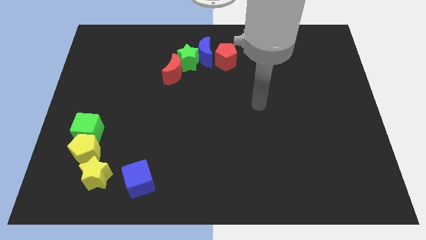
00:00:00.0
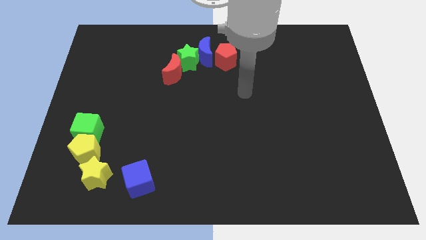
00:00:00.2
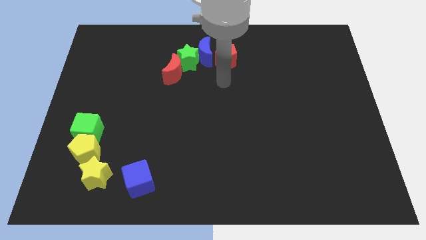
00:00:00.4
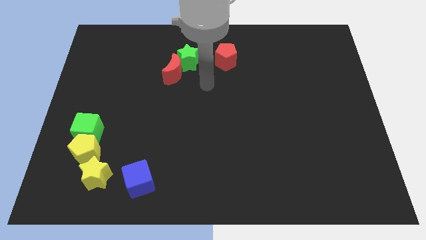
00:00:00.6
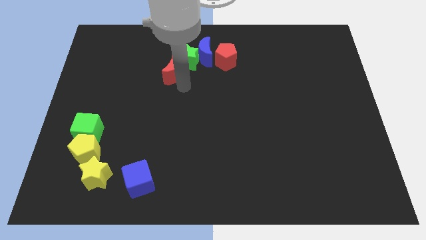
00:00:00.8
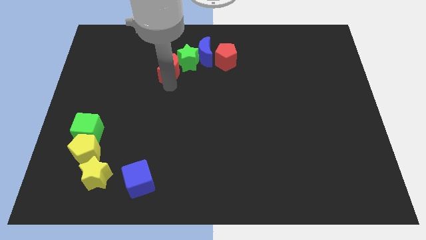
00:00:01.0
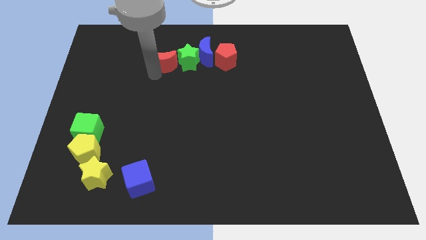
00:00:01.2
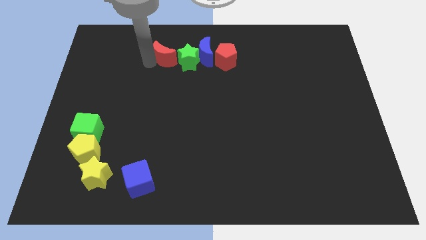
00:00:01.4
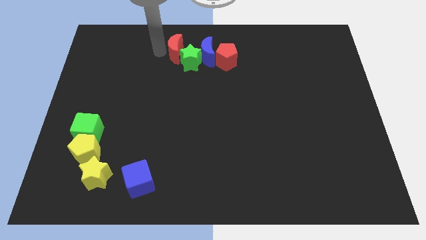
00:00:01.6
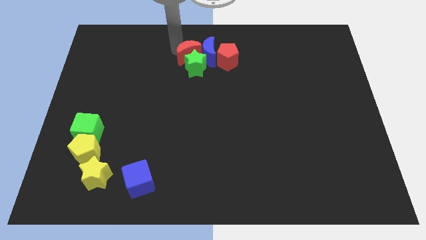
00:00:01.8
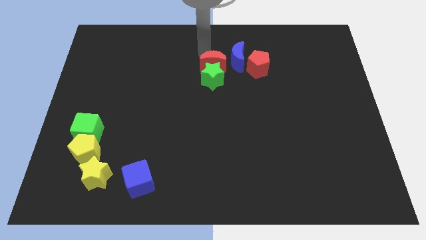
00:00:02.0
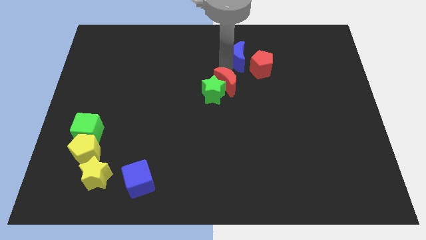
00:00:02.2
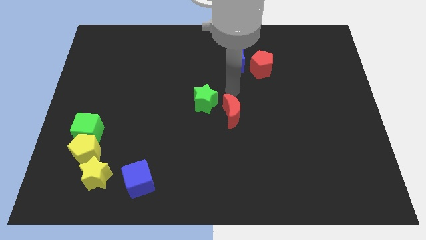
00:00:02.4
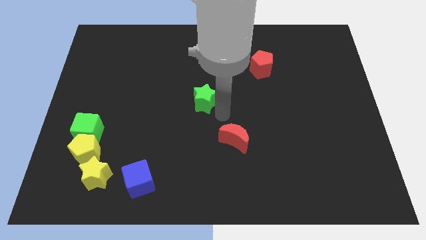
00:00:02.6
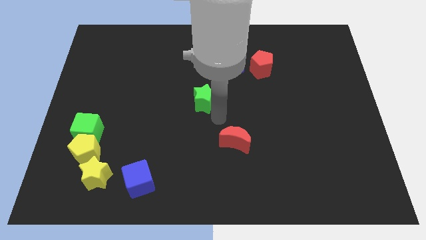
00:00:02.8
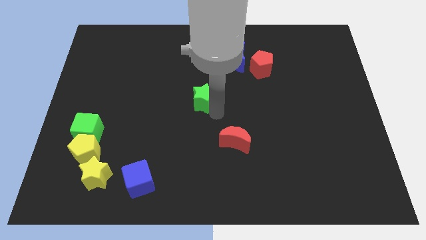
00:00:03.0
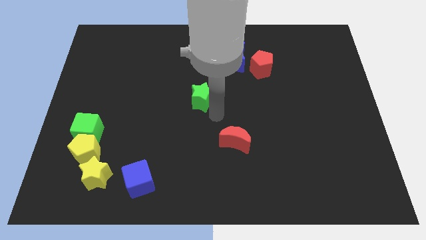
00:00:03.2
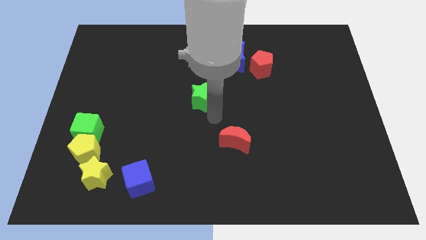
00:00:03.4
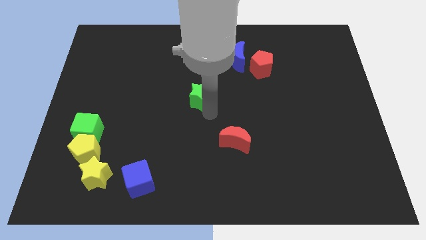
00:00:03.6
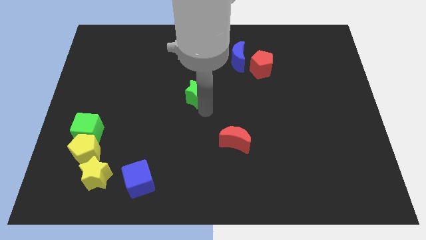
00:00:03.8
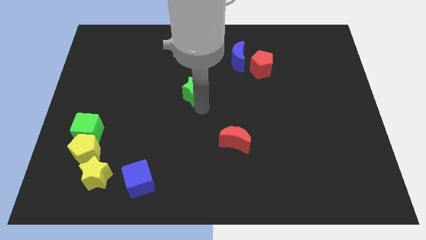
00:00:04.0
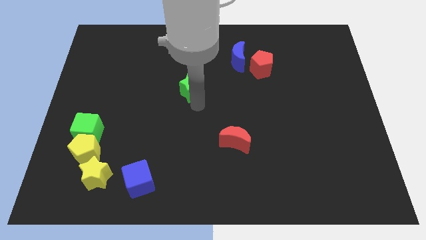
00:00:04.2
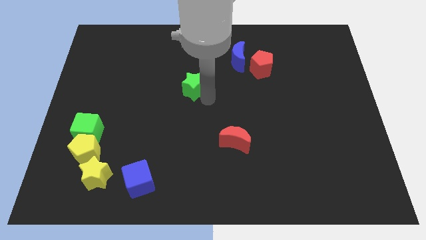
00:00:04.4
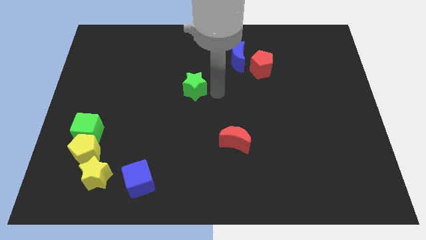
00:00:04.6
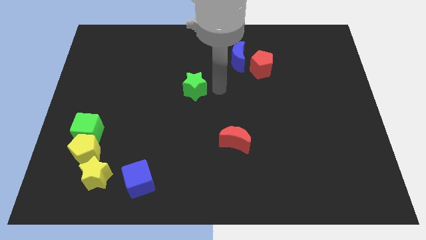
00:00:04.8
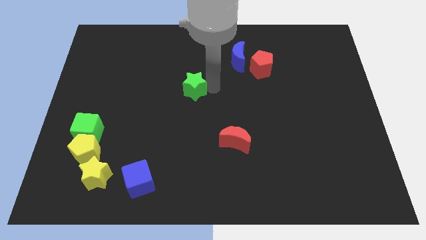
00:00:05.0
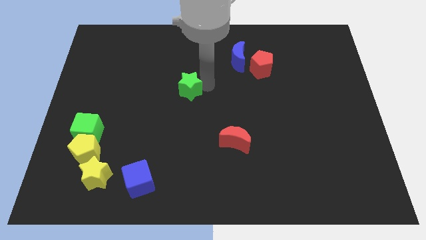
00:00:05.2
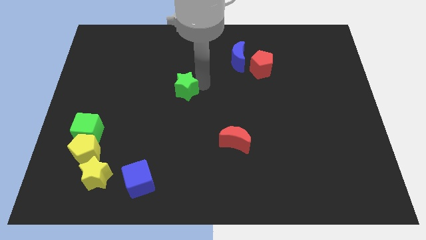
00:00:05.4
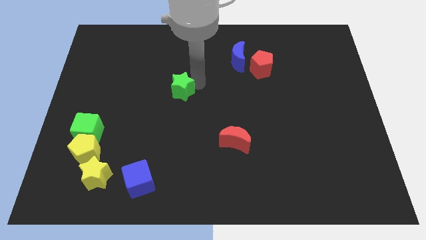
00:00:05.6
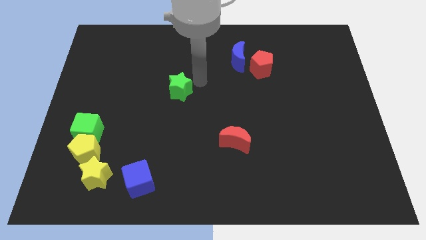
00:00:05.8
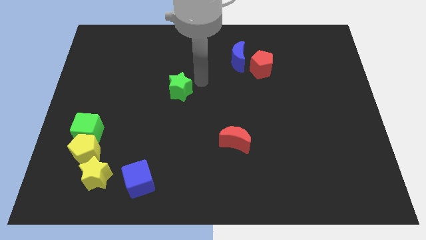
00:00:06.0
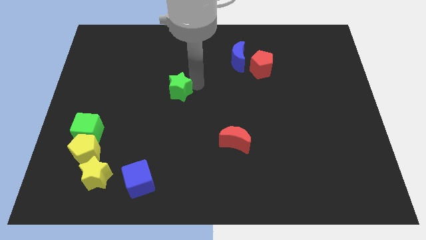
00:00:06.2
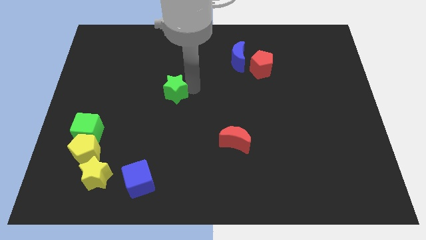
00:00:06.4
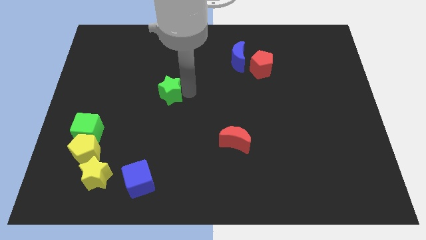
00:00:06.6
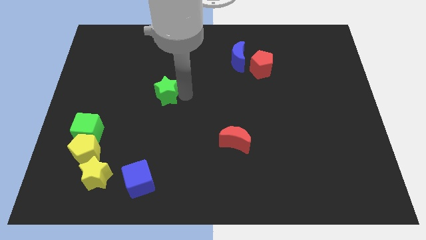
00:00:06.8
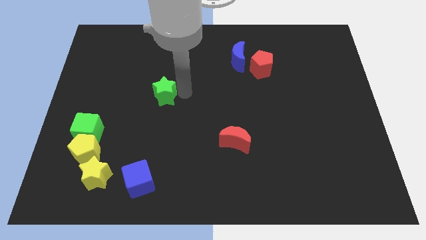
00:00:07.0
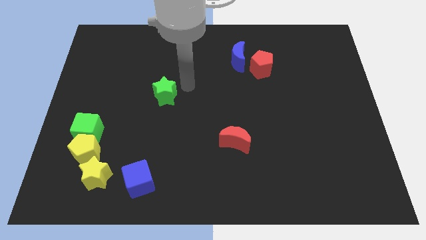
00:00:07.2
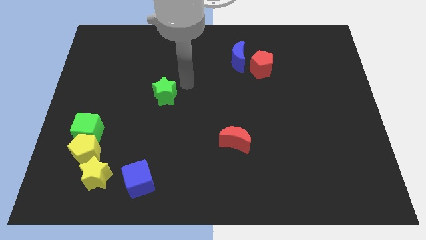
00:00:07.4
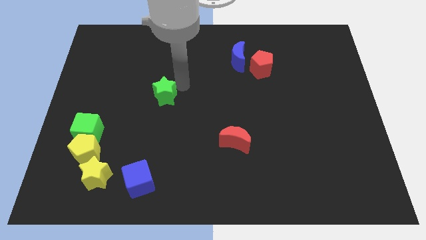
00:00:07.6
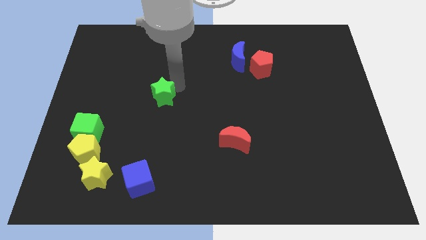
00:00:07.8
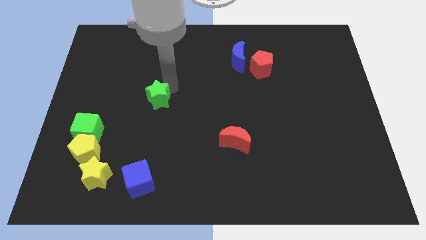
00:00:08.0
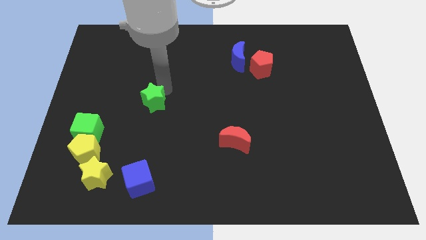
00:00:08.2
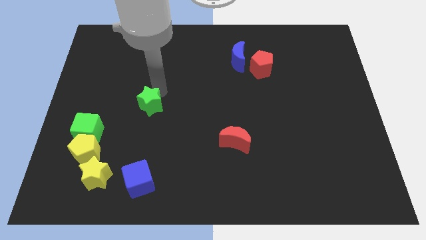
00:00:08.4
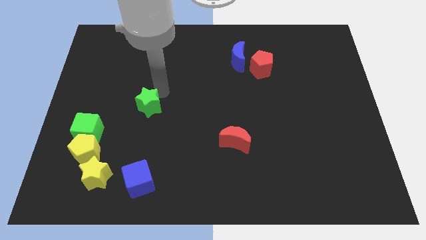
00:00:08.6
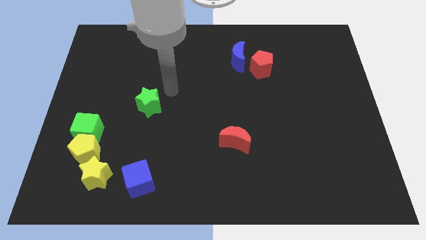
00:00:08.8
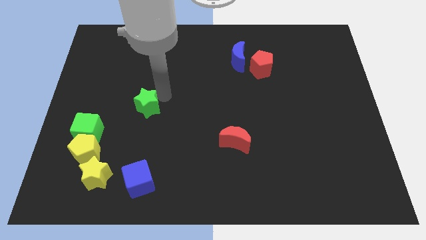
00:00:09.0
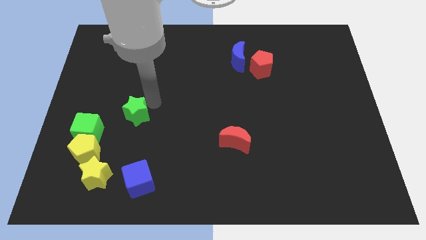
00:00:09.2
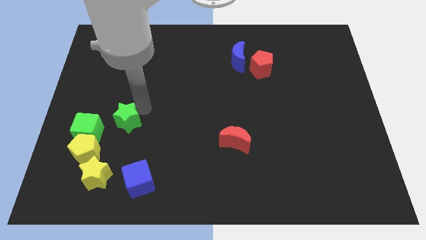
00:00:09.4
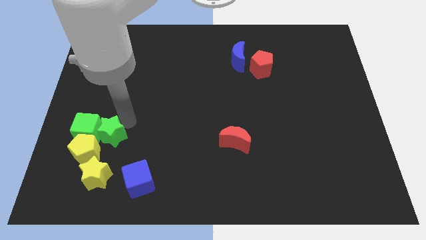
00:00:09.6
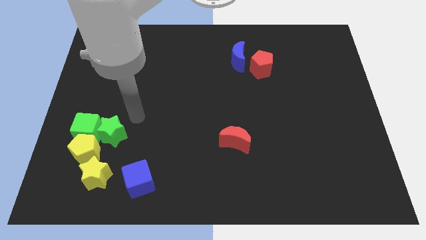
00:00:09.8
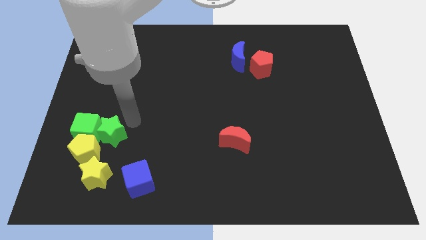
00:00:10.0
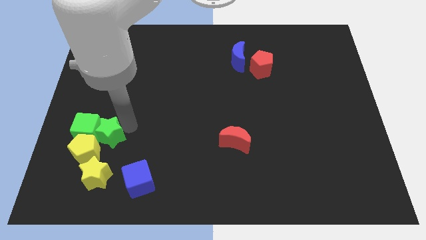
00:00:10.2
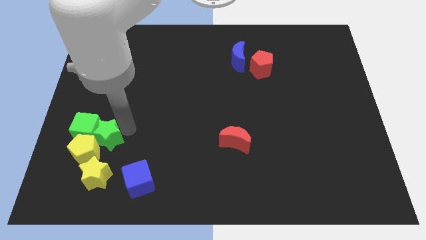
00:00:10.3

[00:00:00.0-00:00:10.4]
move the green star next to the yellow pentagon

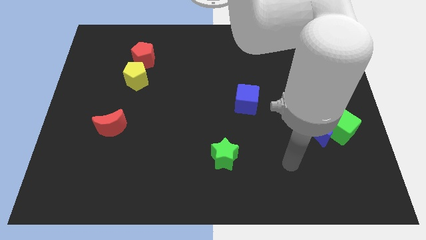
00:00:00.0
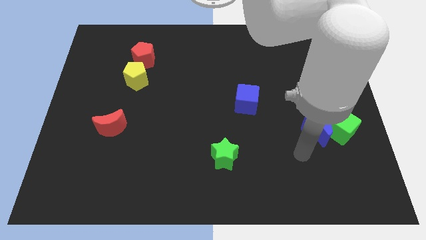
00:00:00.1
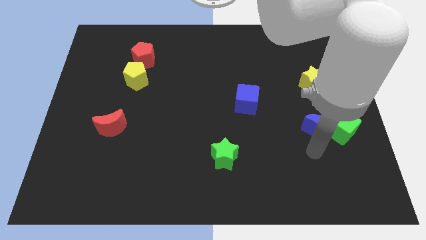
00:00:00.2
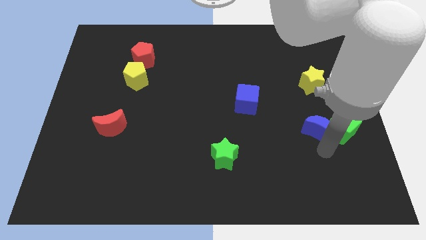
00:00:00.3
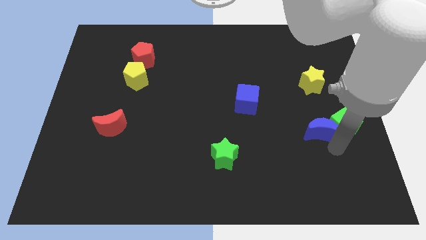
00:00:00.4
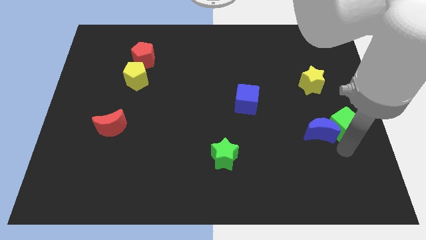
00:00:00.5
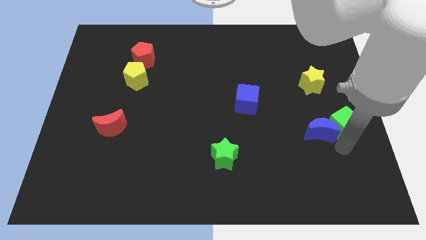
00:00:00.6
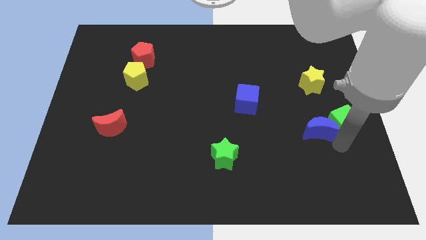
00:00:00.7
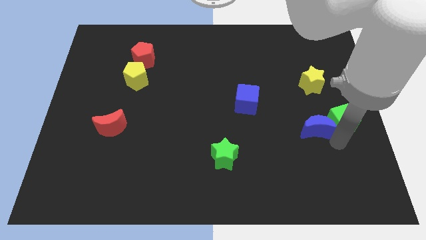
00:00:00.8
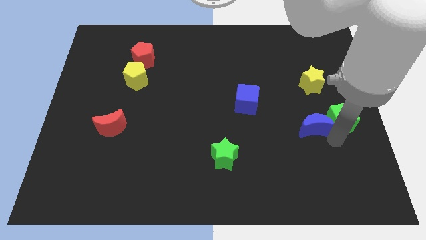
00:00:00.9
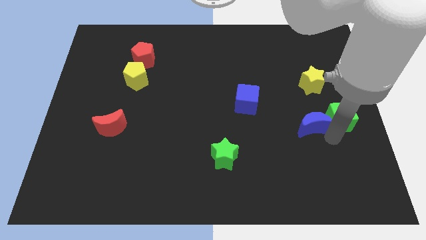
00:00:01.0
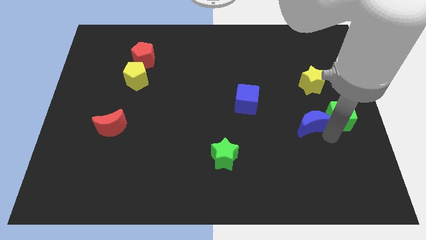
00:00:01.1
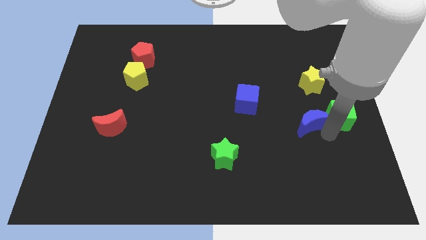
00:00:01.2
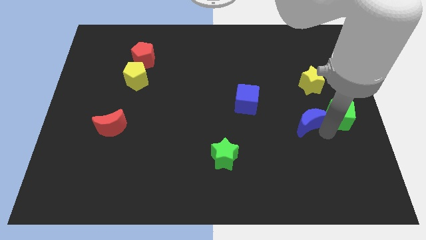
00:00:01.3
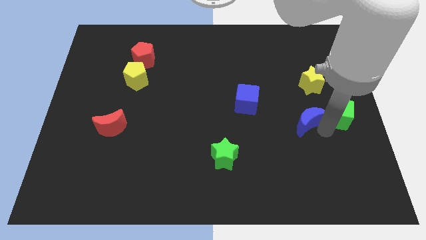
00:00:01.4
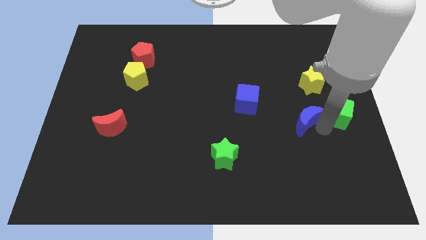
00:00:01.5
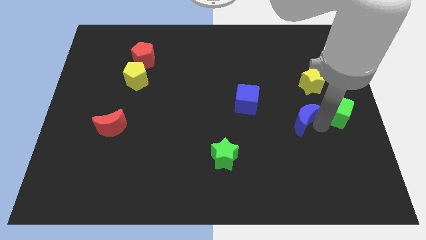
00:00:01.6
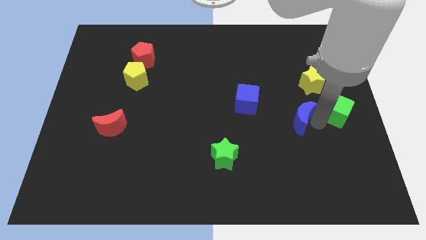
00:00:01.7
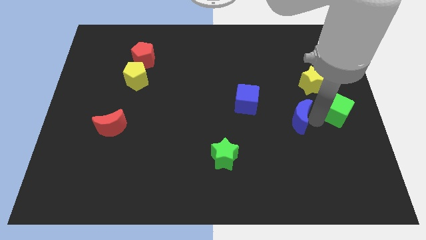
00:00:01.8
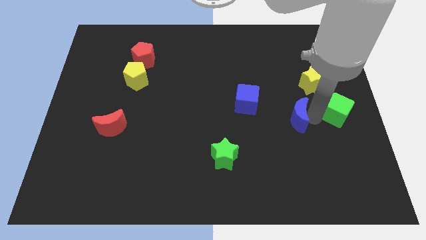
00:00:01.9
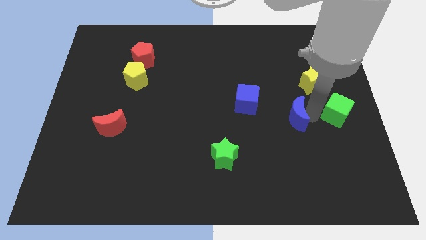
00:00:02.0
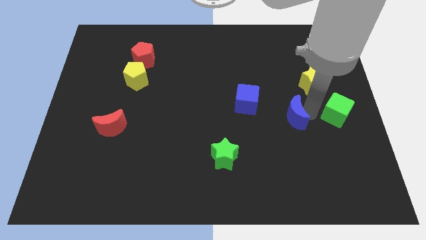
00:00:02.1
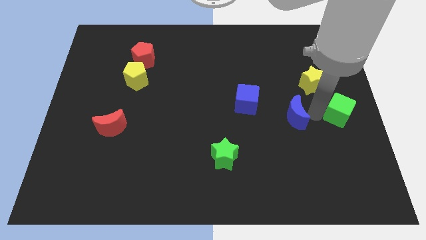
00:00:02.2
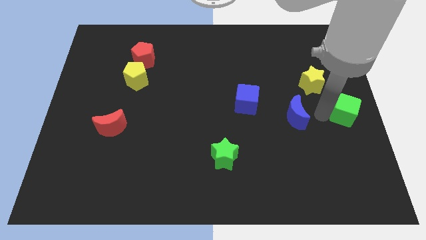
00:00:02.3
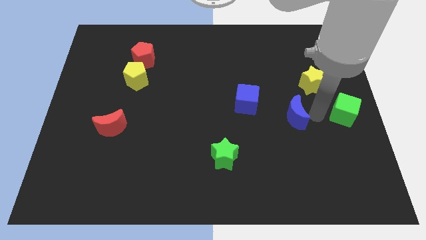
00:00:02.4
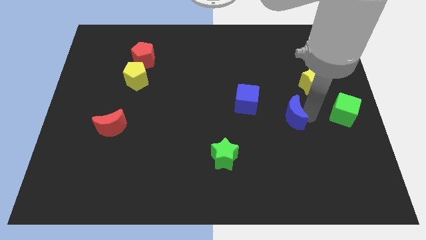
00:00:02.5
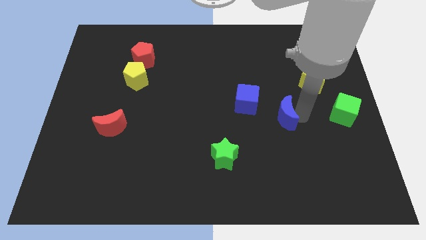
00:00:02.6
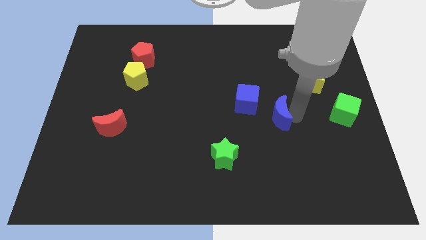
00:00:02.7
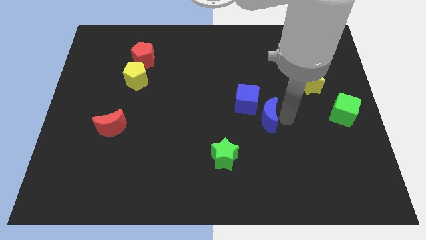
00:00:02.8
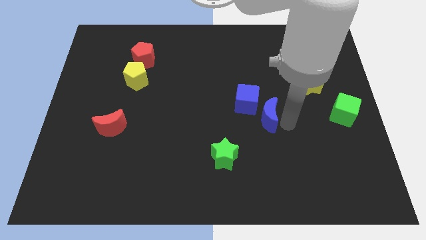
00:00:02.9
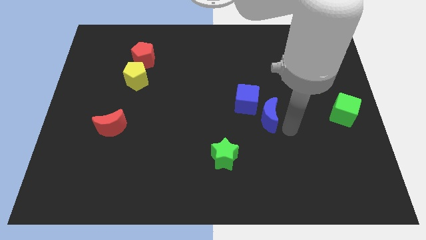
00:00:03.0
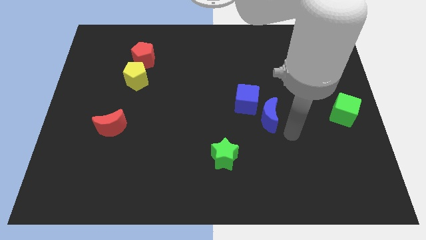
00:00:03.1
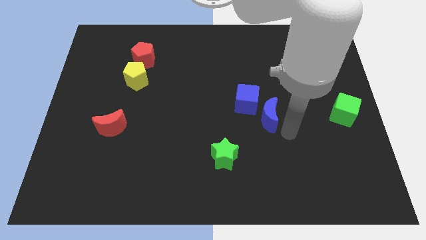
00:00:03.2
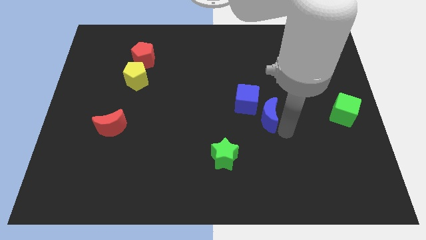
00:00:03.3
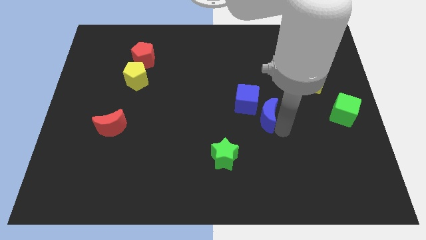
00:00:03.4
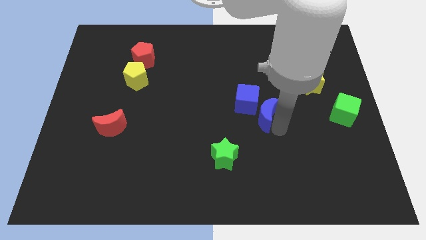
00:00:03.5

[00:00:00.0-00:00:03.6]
put the blue moon to the blue cube
